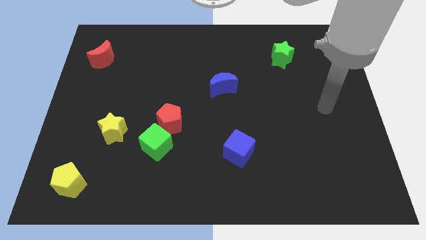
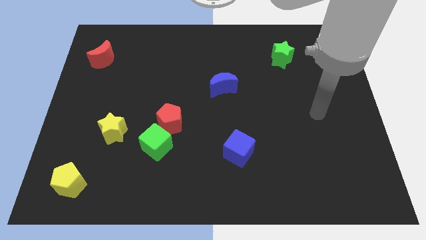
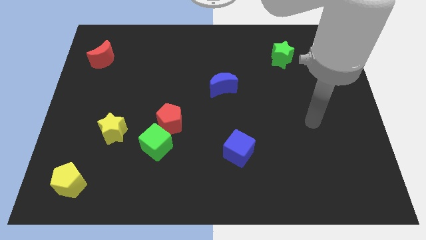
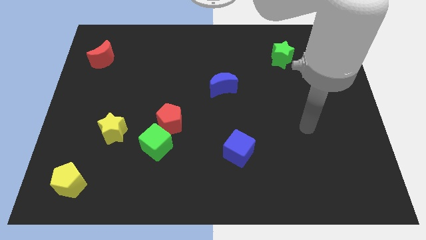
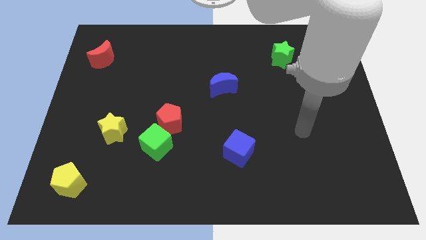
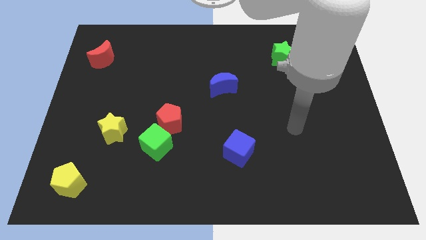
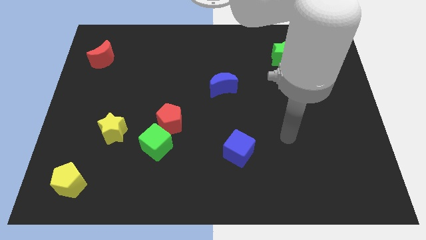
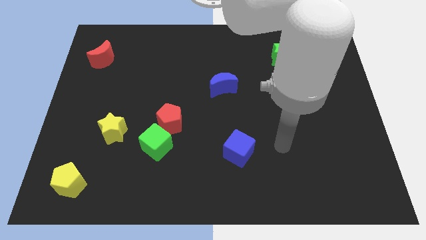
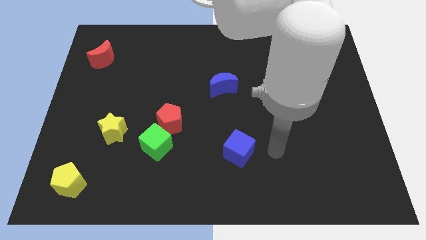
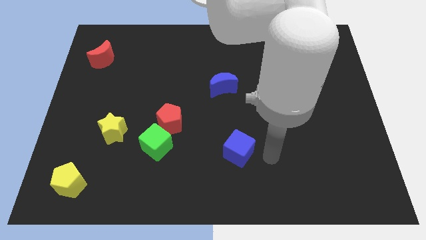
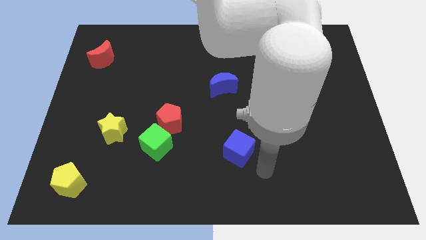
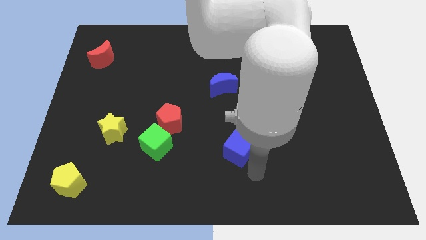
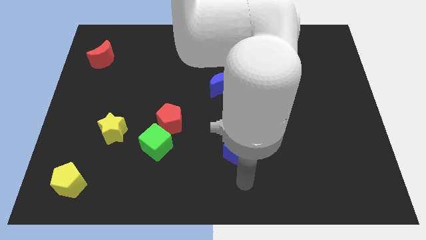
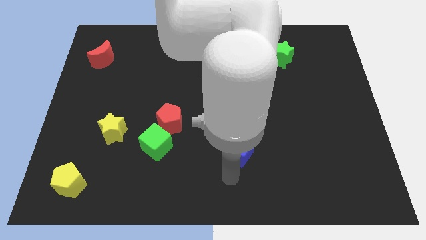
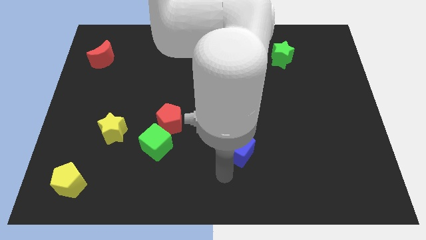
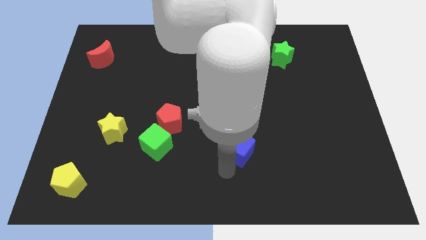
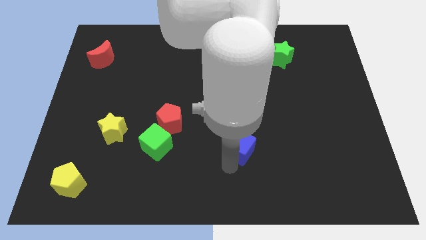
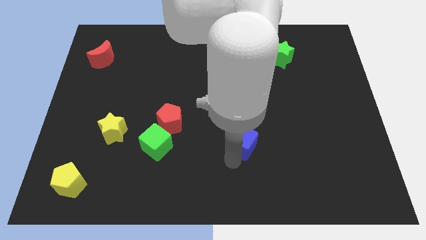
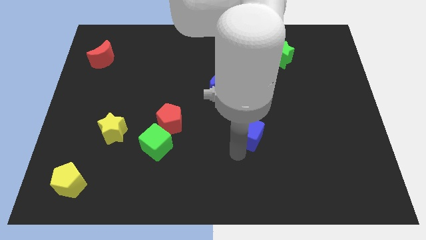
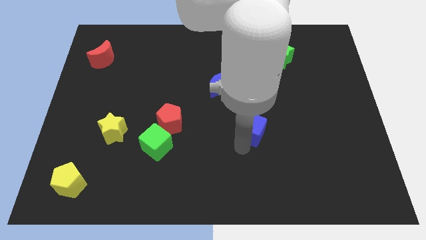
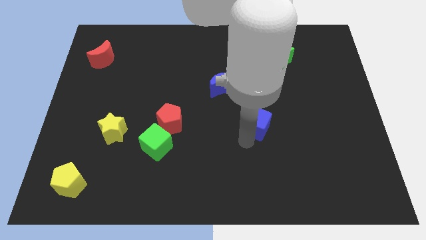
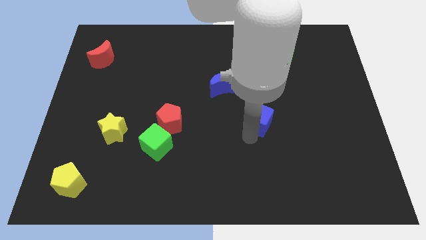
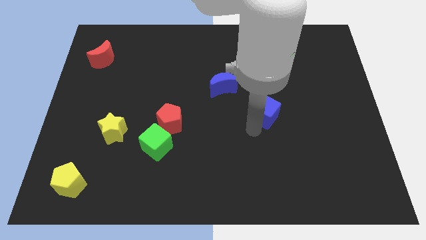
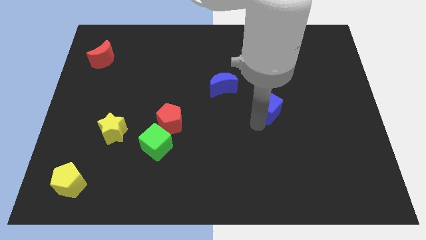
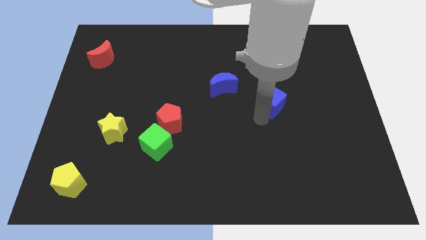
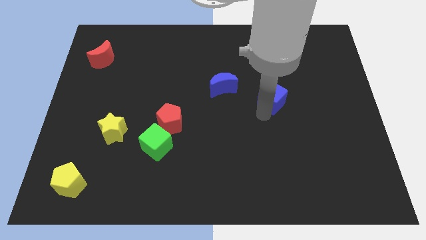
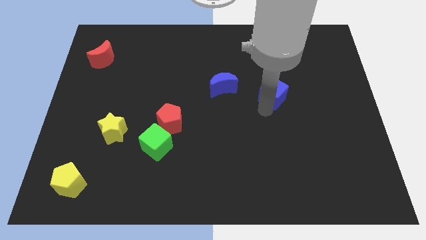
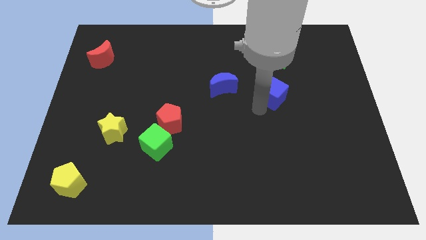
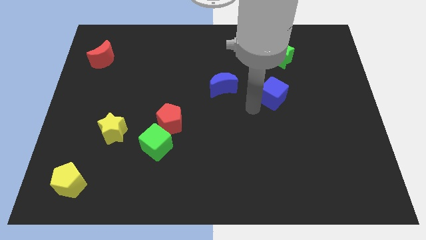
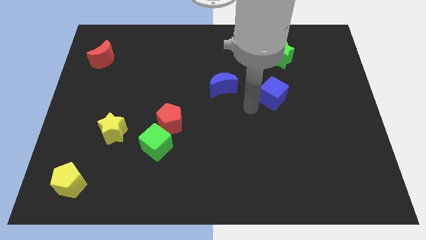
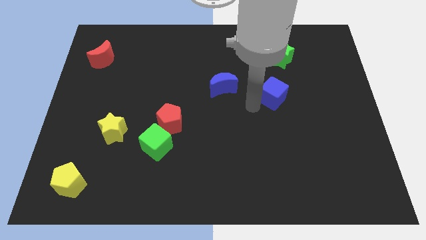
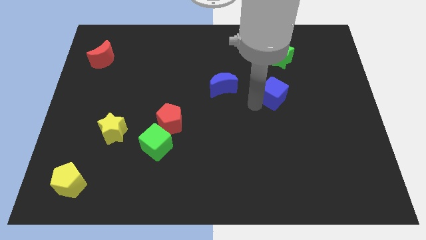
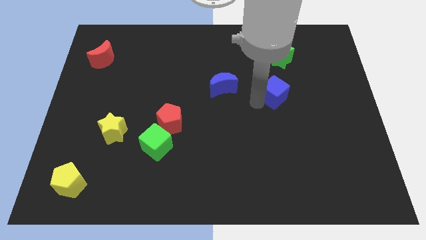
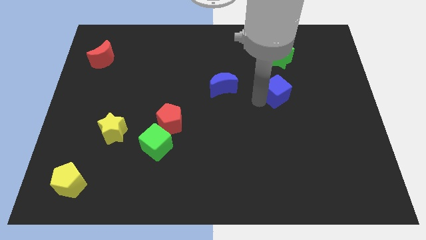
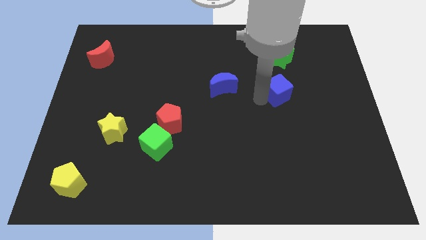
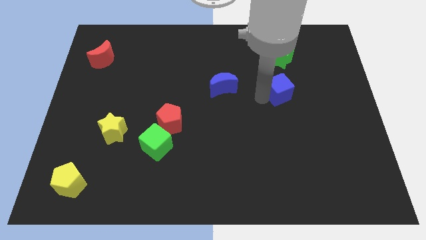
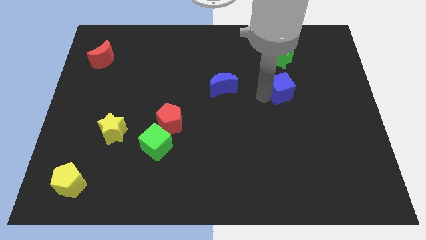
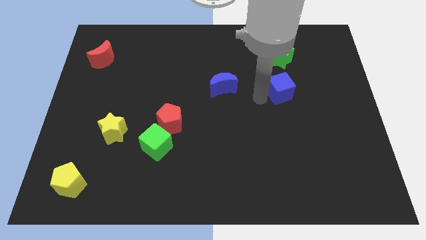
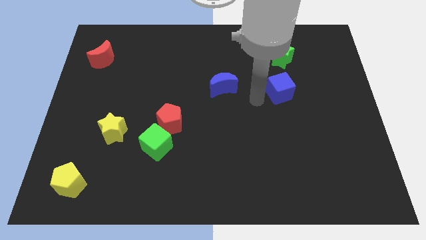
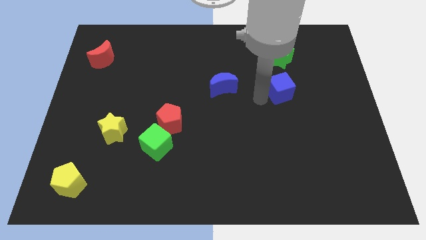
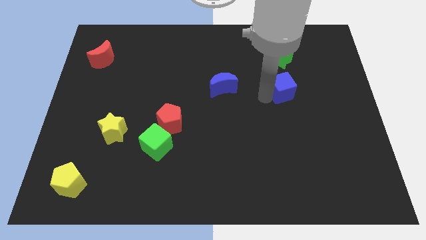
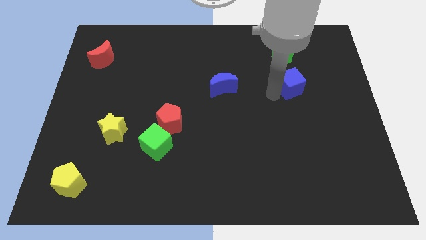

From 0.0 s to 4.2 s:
move the blue cube up and to the right

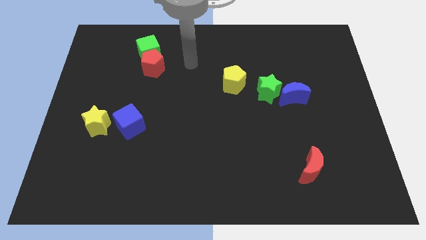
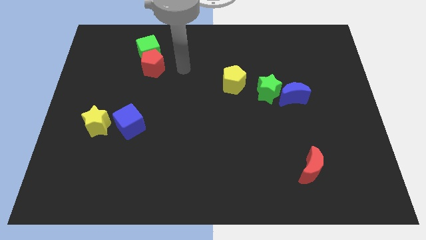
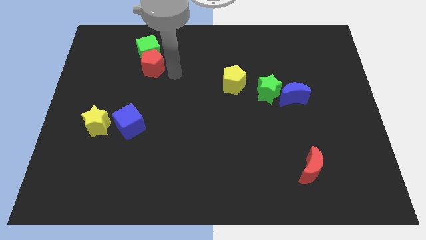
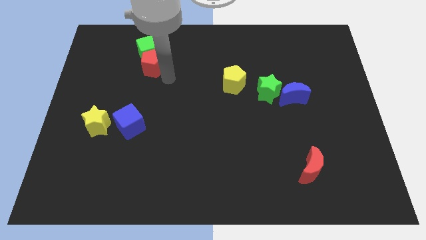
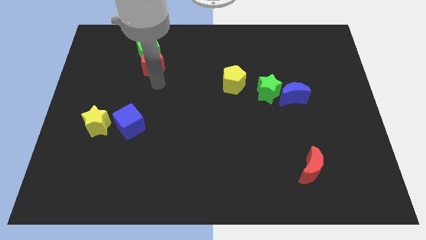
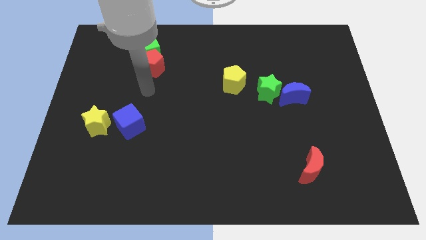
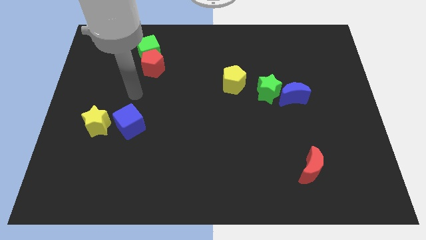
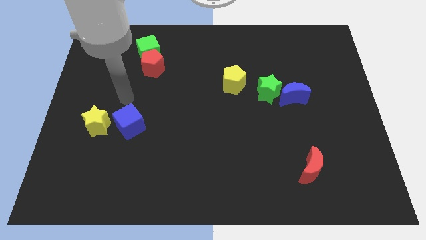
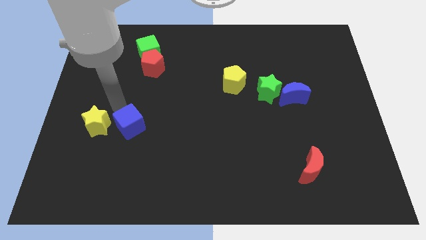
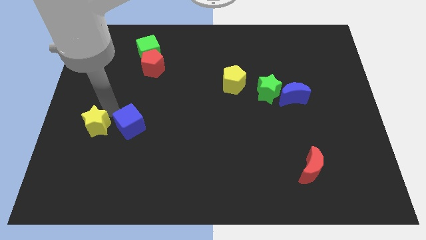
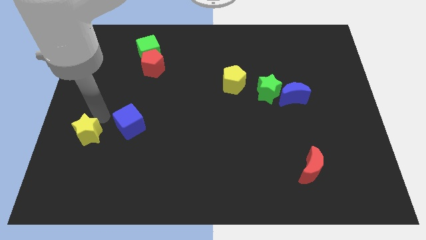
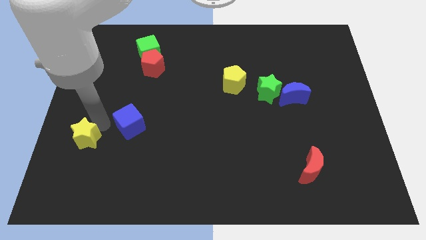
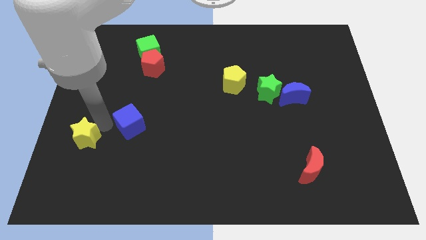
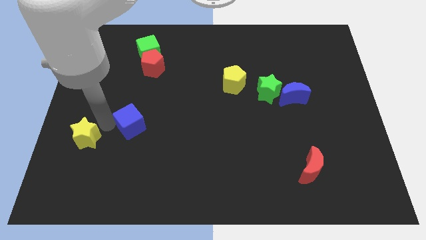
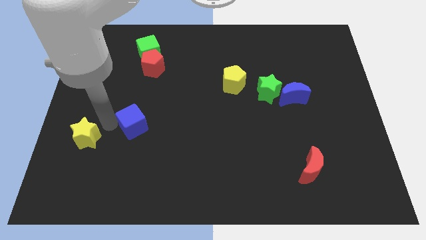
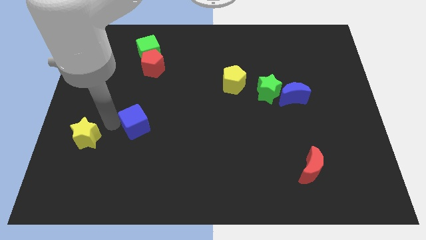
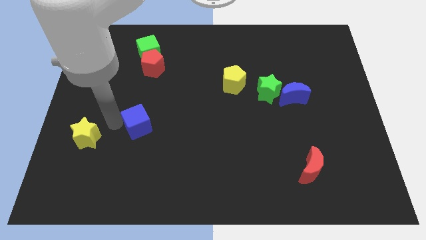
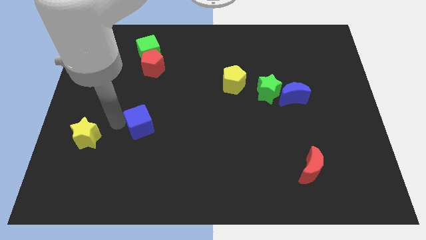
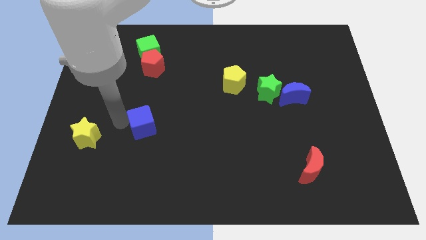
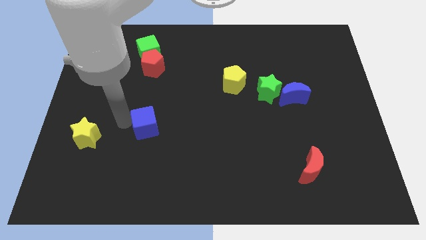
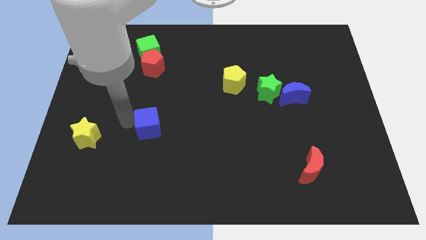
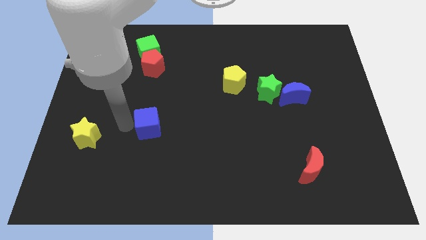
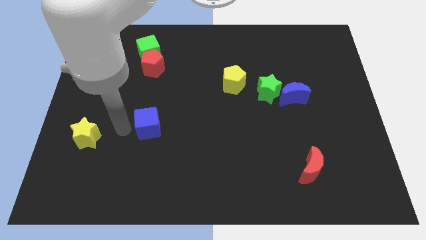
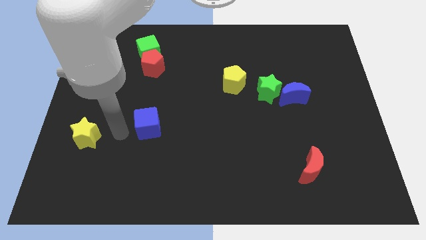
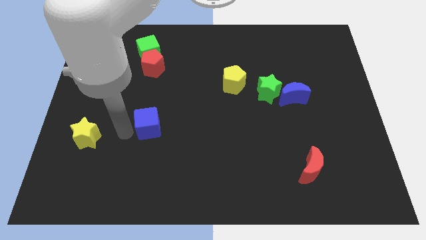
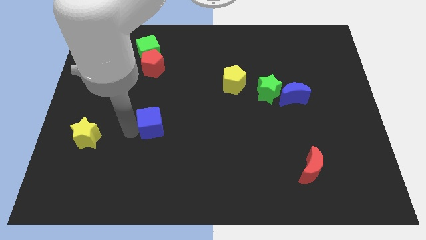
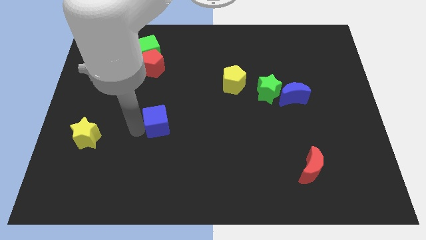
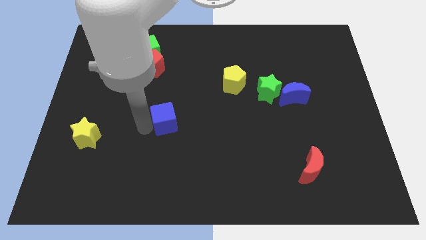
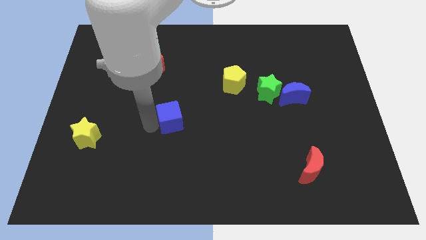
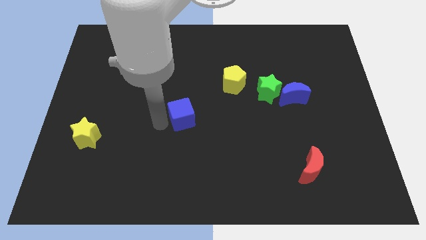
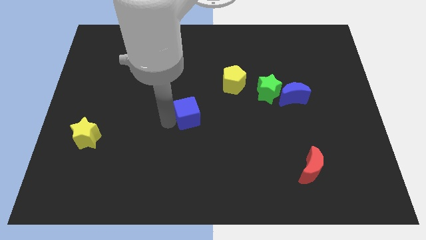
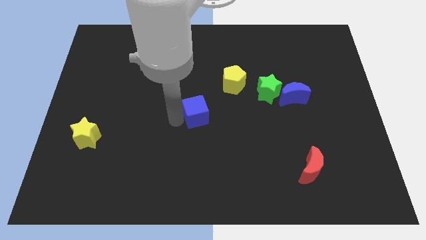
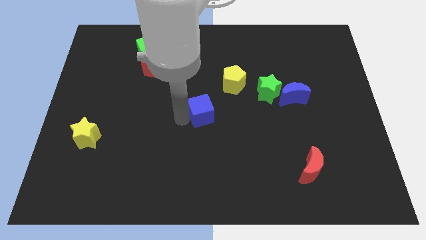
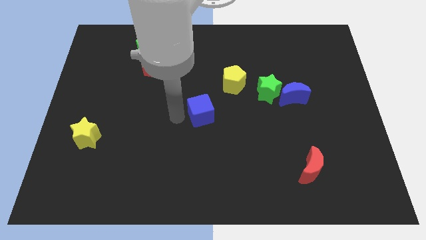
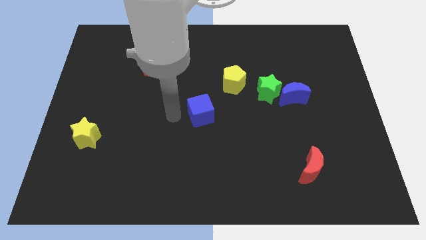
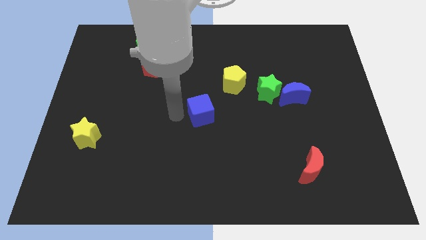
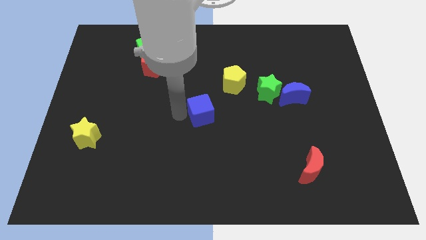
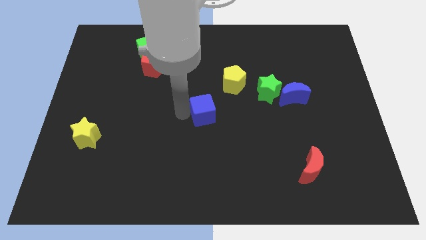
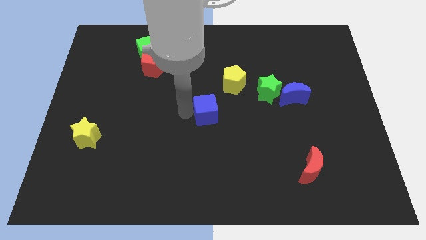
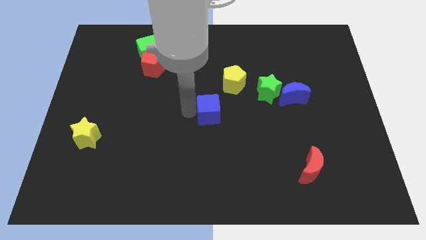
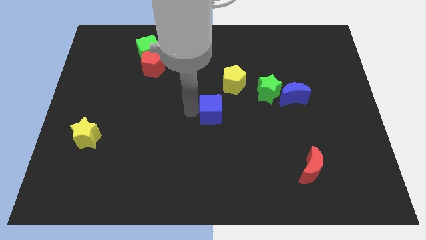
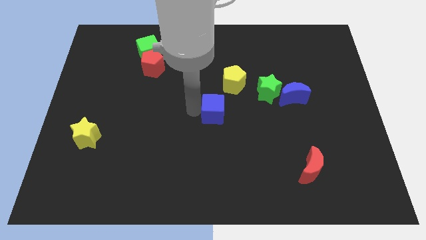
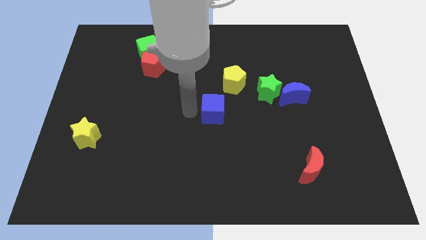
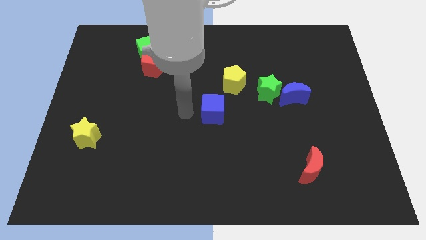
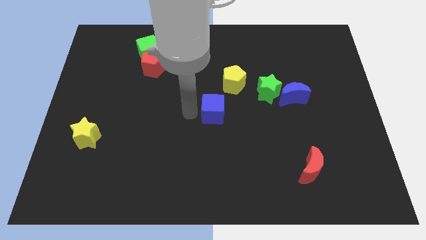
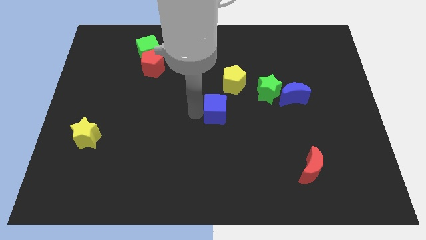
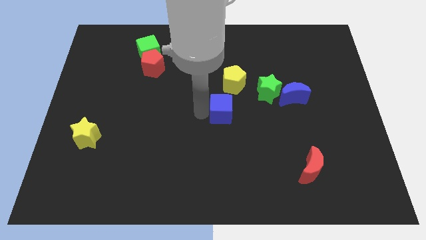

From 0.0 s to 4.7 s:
slide the blue cube to the right
